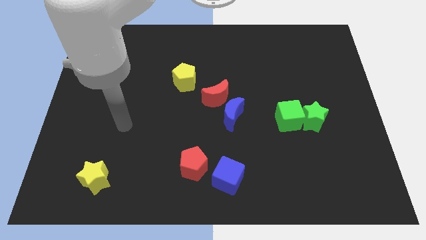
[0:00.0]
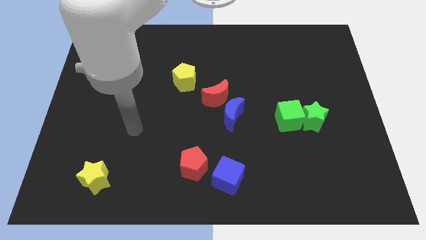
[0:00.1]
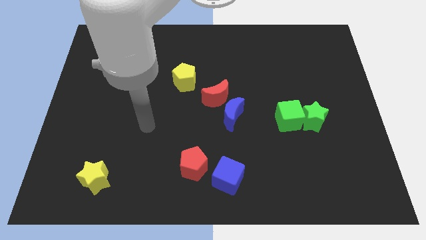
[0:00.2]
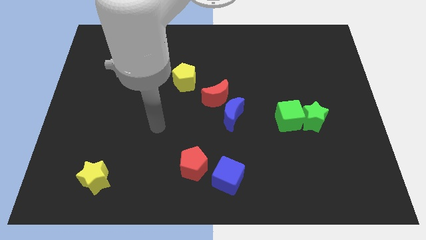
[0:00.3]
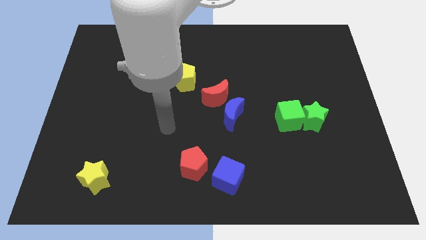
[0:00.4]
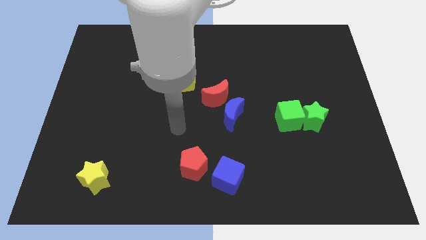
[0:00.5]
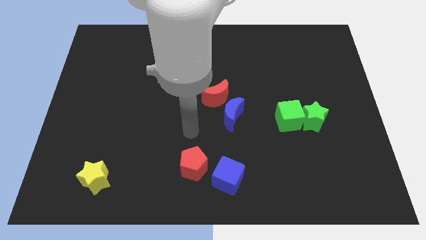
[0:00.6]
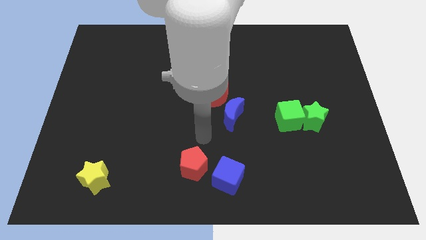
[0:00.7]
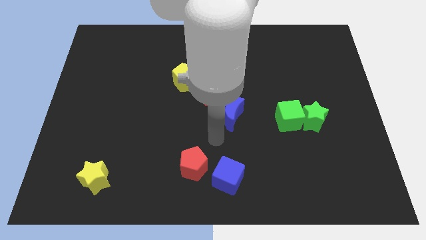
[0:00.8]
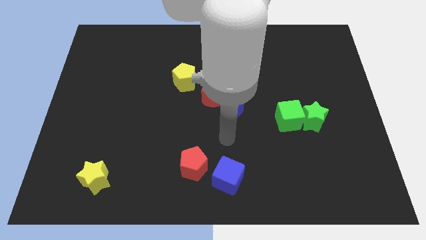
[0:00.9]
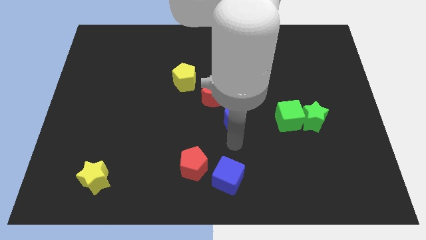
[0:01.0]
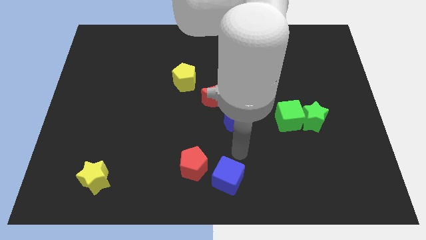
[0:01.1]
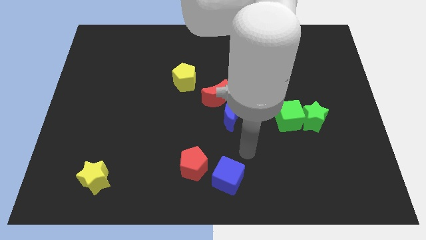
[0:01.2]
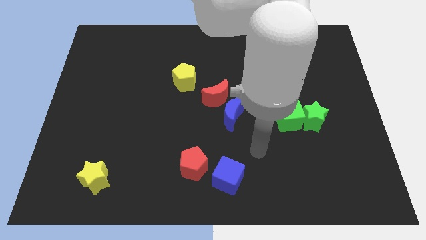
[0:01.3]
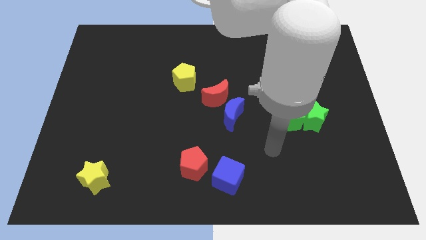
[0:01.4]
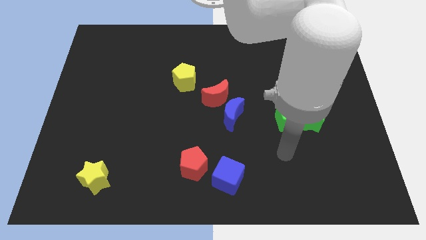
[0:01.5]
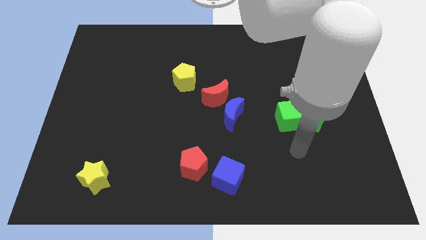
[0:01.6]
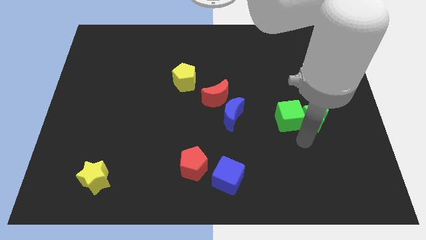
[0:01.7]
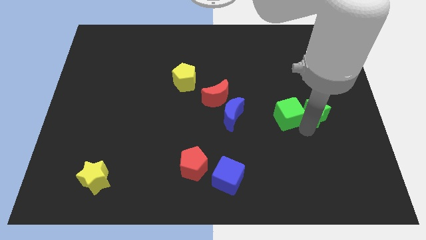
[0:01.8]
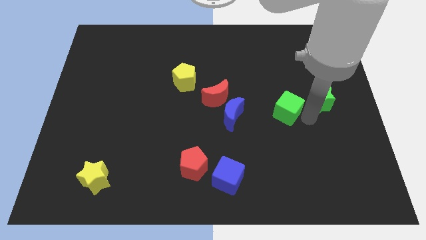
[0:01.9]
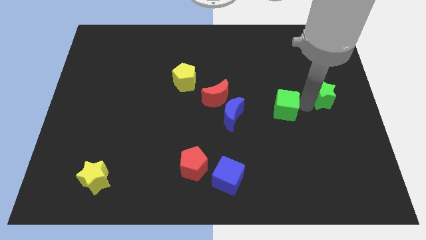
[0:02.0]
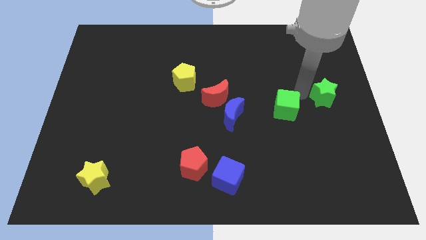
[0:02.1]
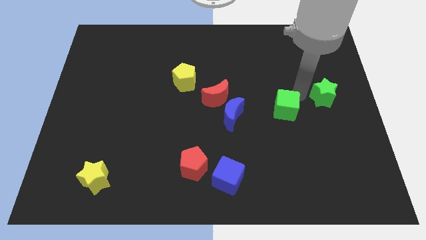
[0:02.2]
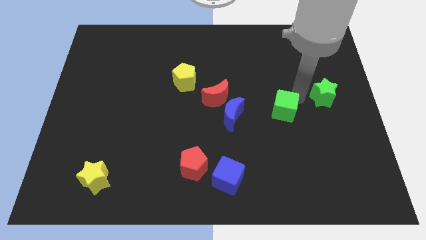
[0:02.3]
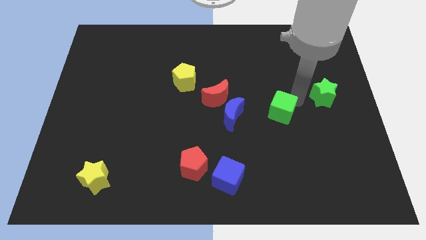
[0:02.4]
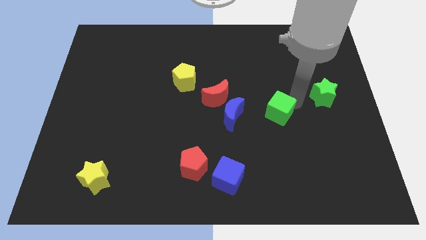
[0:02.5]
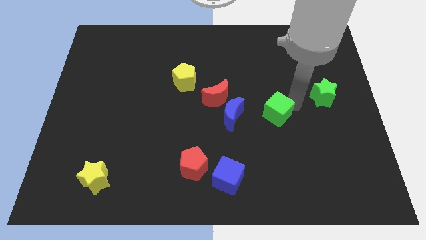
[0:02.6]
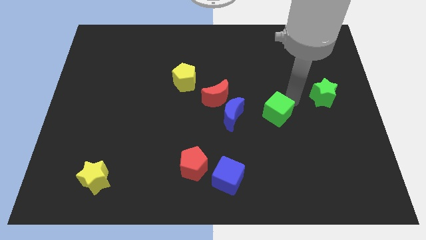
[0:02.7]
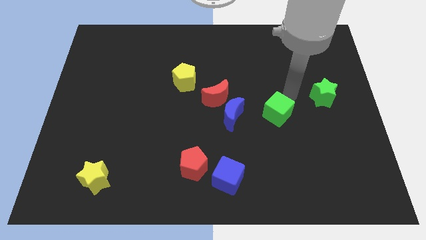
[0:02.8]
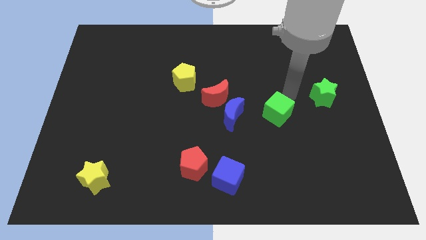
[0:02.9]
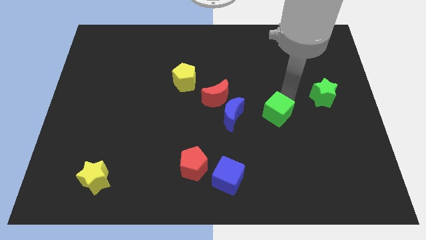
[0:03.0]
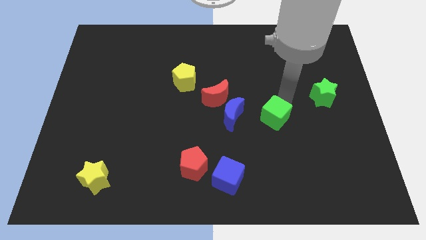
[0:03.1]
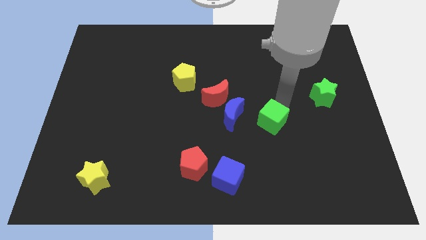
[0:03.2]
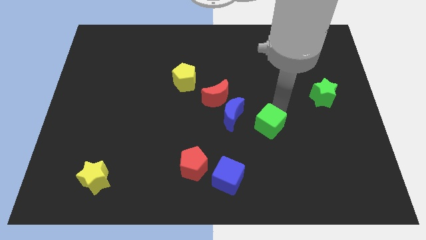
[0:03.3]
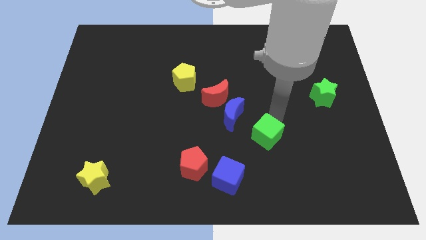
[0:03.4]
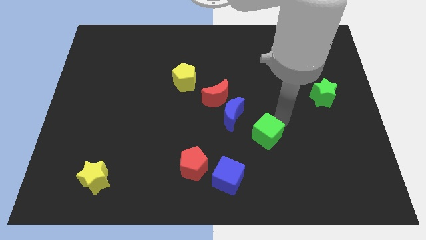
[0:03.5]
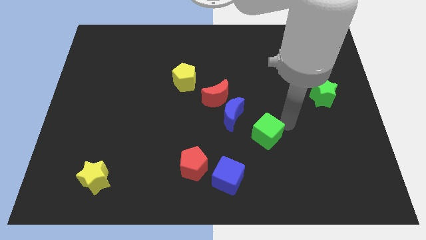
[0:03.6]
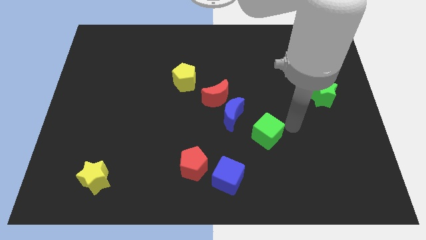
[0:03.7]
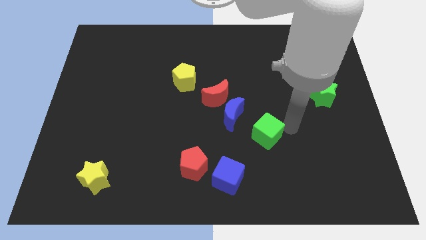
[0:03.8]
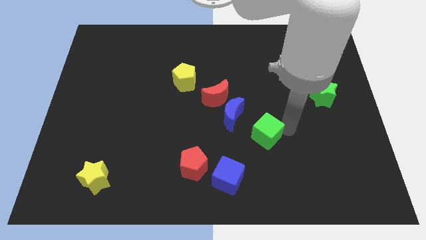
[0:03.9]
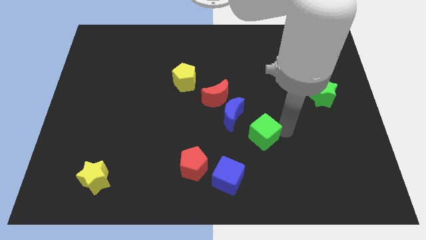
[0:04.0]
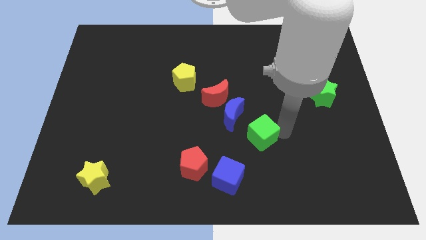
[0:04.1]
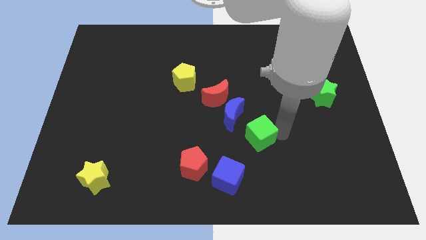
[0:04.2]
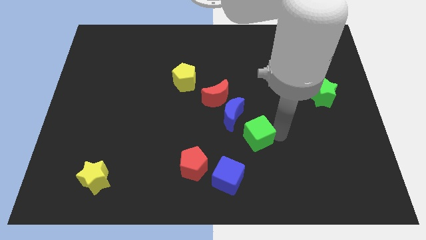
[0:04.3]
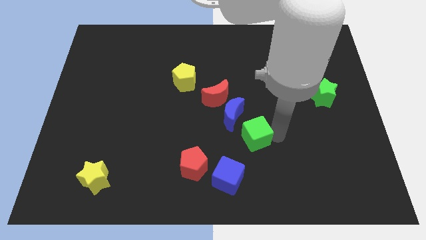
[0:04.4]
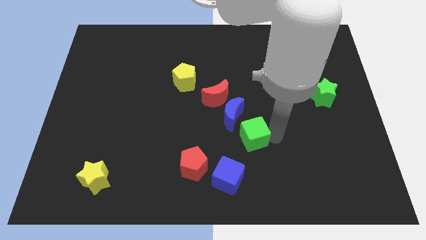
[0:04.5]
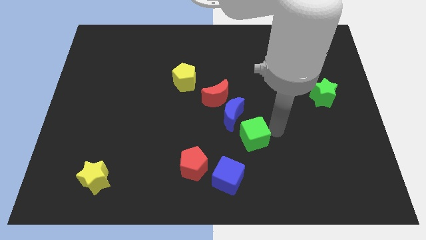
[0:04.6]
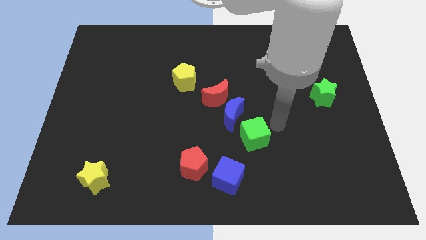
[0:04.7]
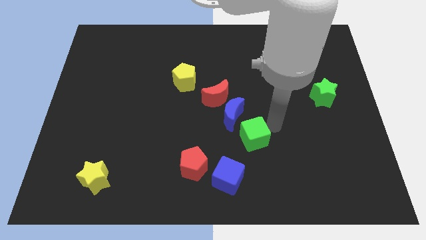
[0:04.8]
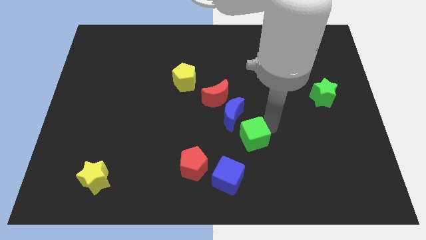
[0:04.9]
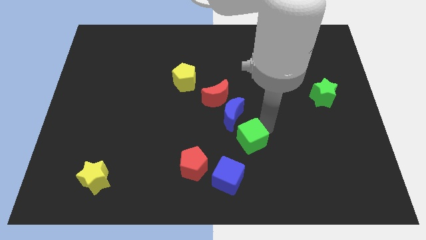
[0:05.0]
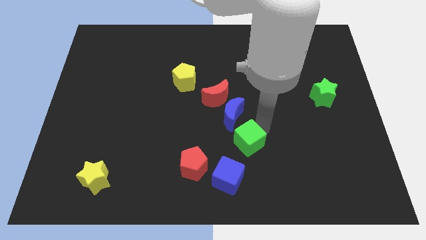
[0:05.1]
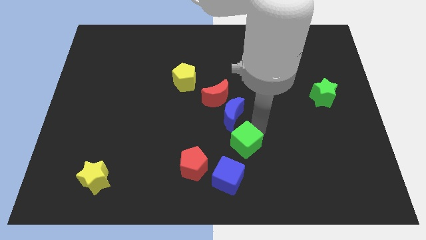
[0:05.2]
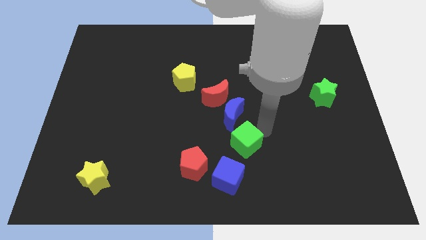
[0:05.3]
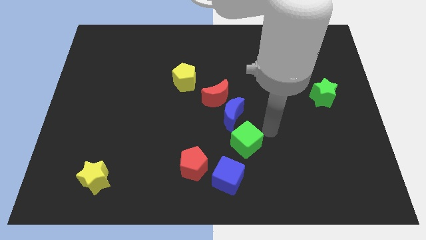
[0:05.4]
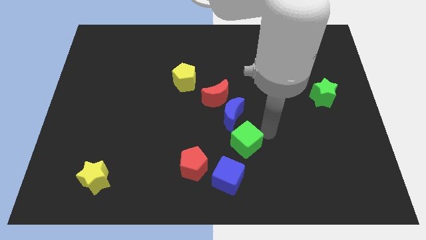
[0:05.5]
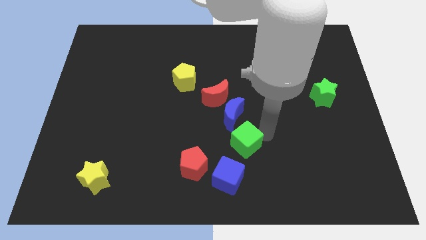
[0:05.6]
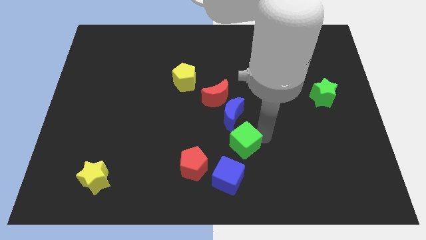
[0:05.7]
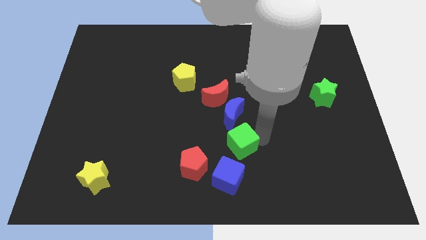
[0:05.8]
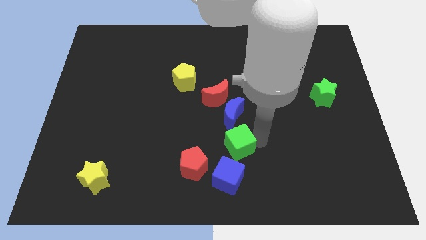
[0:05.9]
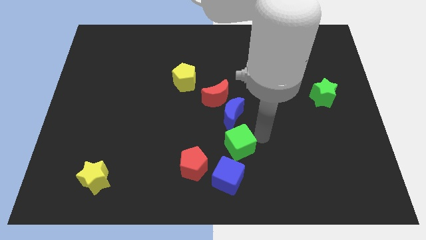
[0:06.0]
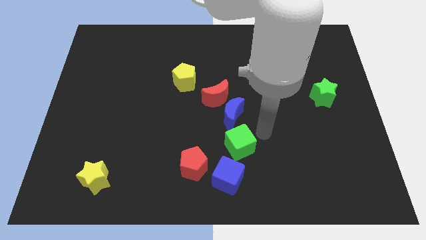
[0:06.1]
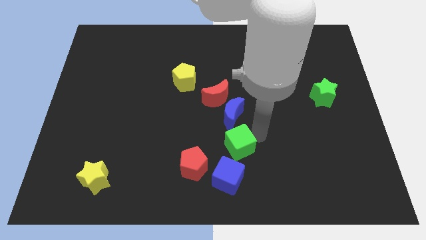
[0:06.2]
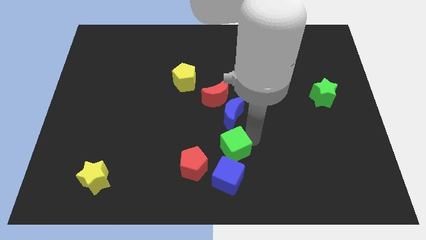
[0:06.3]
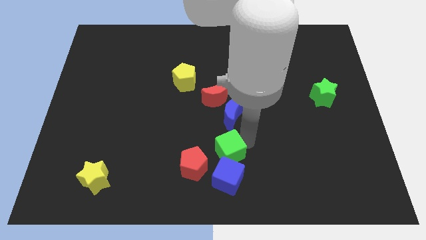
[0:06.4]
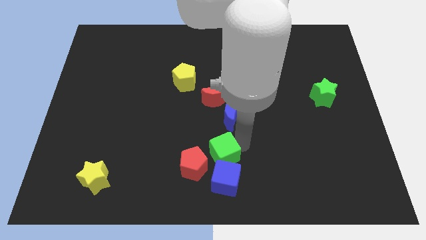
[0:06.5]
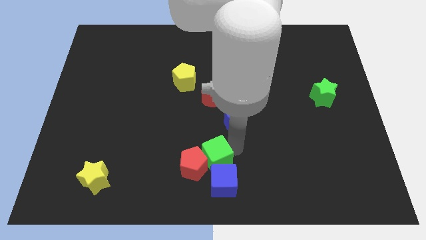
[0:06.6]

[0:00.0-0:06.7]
slide the green cube close to the red pentagon

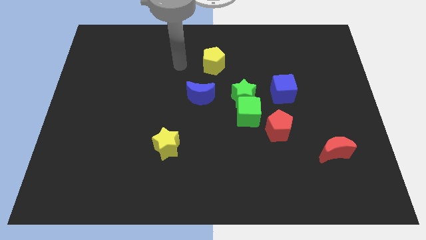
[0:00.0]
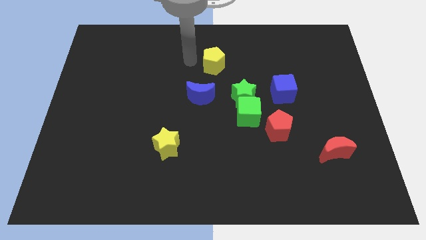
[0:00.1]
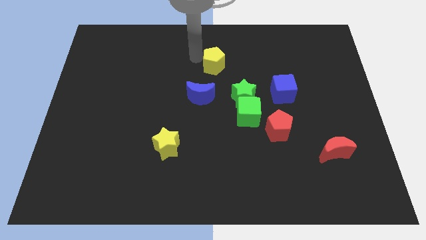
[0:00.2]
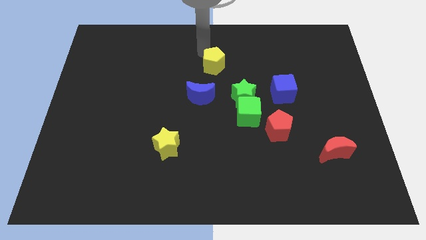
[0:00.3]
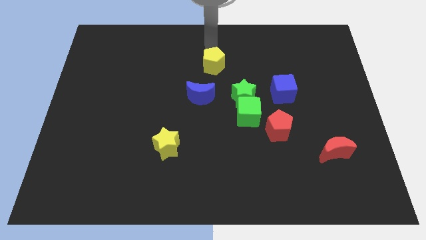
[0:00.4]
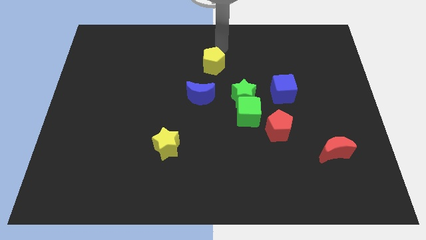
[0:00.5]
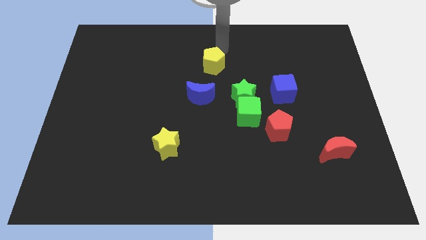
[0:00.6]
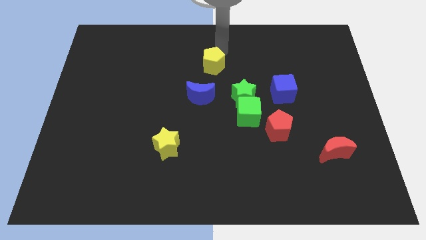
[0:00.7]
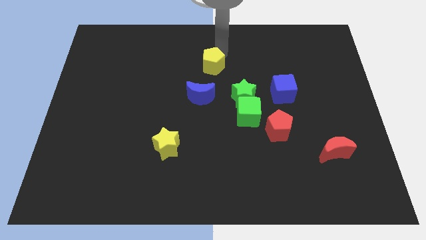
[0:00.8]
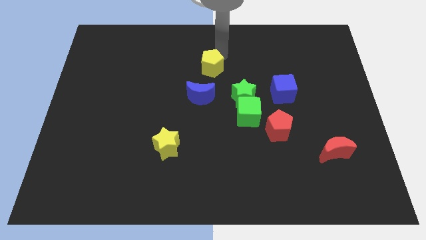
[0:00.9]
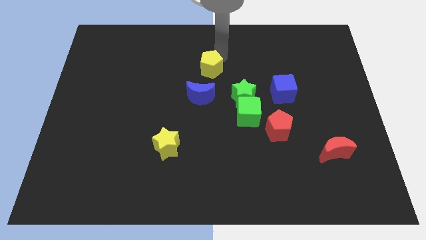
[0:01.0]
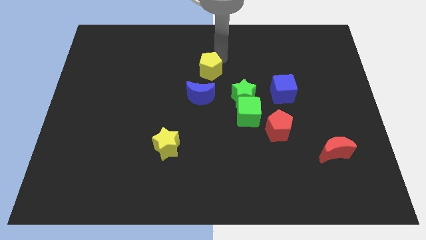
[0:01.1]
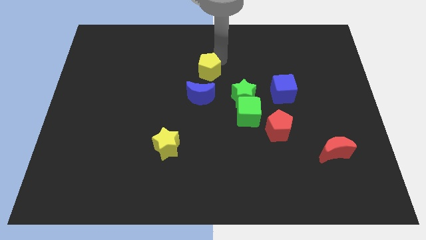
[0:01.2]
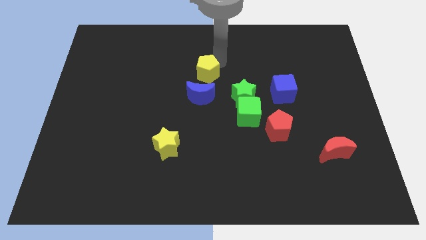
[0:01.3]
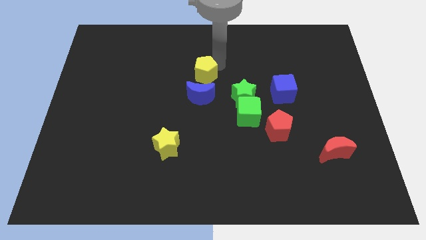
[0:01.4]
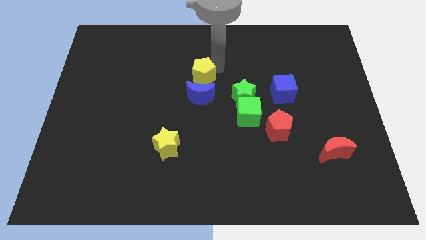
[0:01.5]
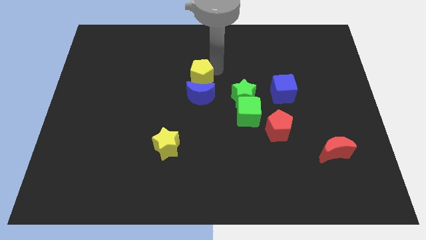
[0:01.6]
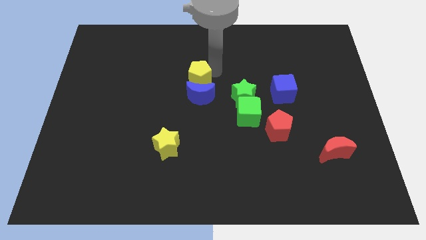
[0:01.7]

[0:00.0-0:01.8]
slide the yellow pentagon close to the blue moon
